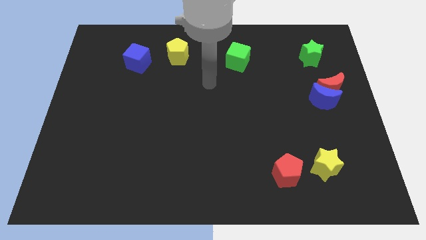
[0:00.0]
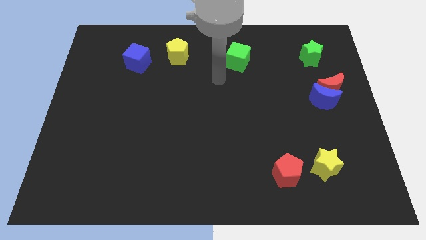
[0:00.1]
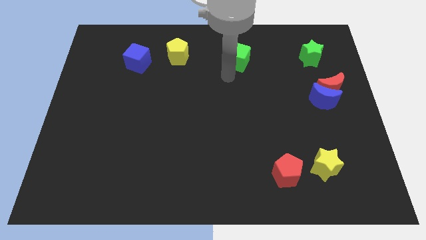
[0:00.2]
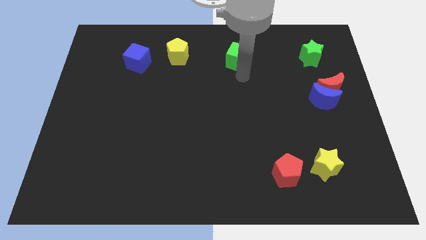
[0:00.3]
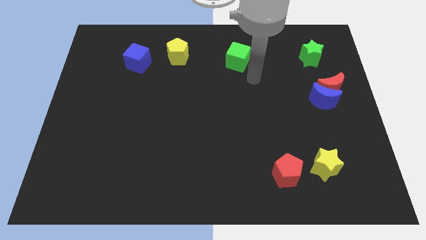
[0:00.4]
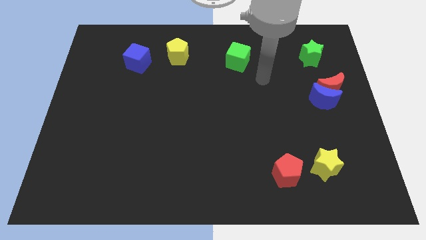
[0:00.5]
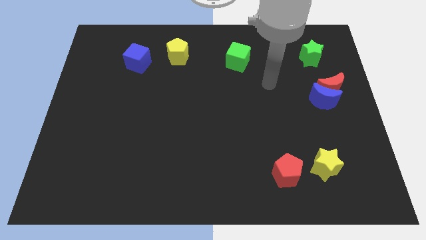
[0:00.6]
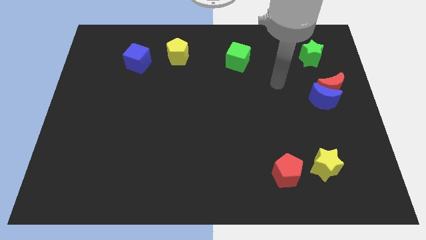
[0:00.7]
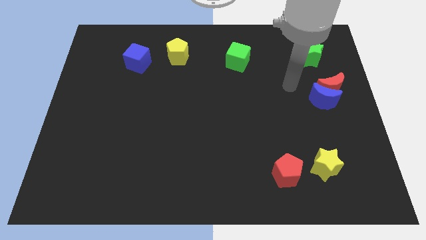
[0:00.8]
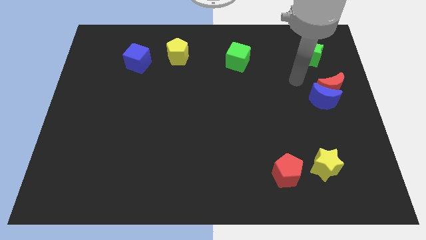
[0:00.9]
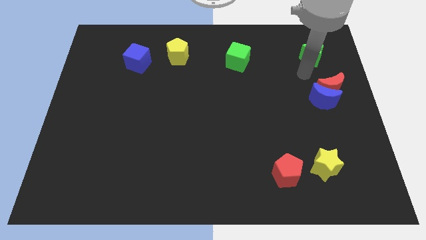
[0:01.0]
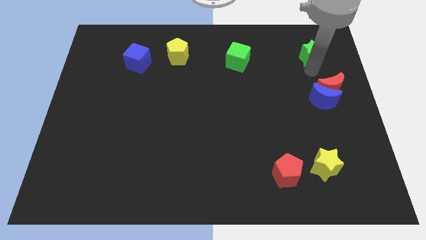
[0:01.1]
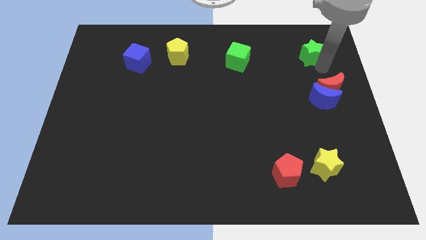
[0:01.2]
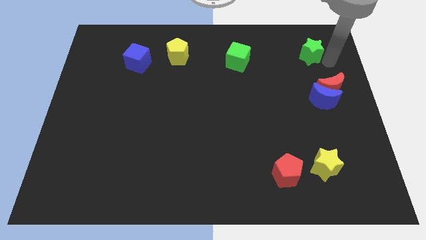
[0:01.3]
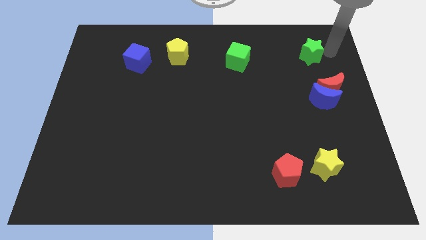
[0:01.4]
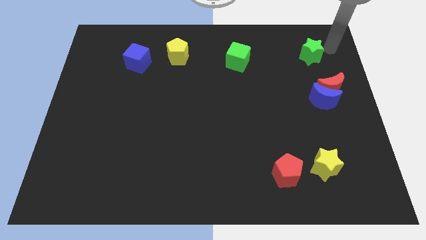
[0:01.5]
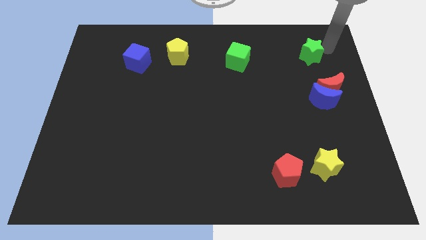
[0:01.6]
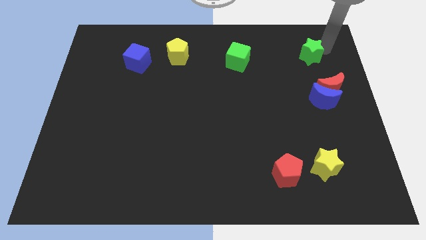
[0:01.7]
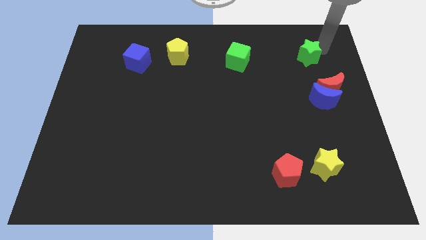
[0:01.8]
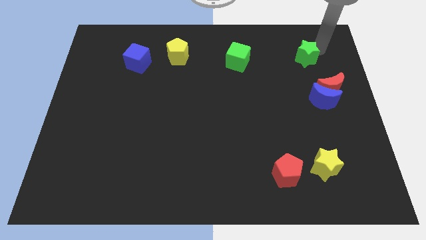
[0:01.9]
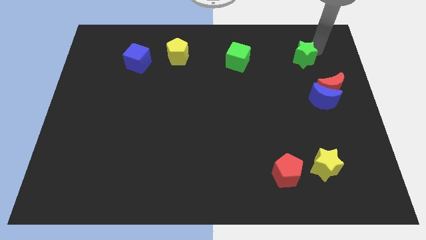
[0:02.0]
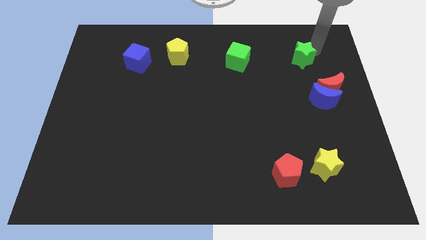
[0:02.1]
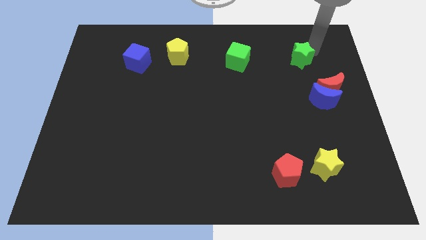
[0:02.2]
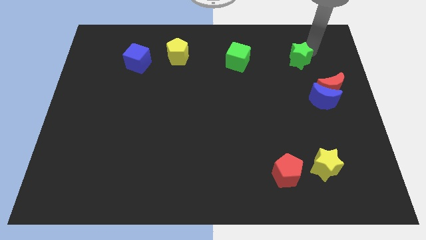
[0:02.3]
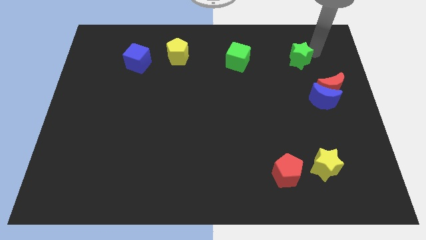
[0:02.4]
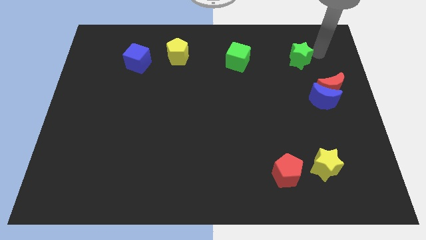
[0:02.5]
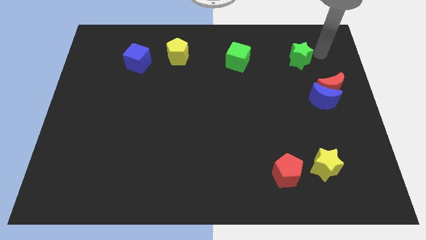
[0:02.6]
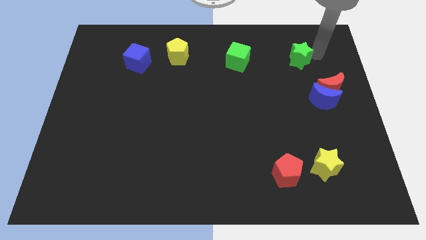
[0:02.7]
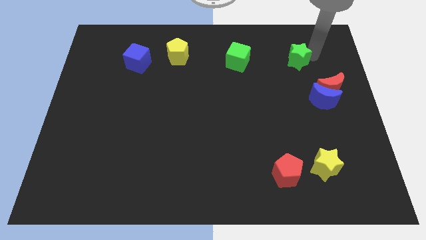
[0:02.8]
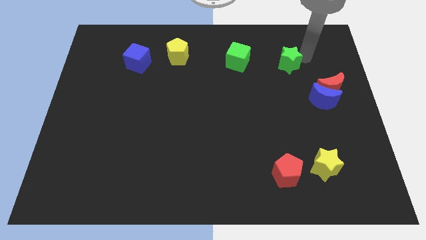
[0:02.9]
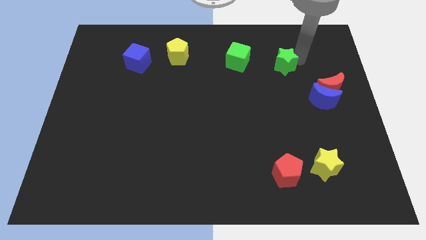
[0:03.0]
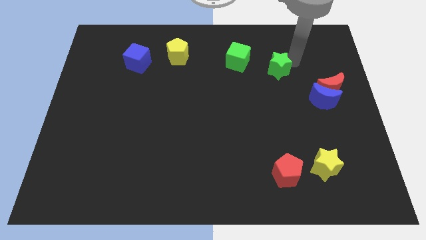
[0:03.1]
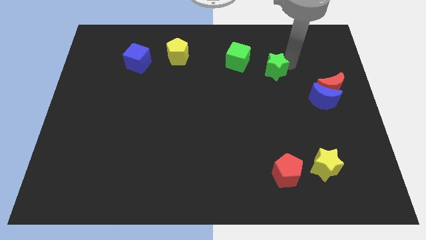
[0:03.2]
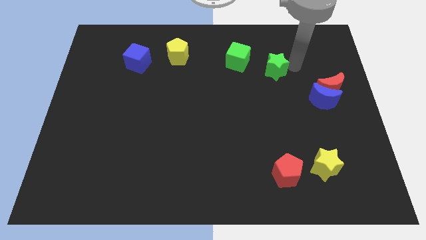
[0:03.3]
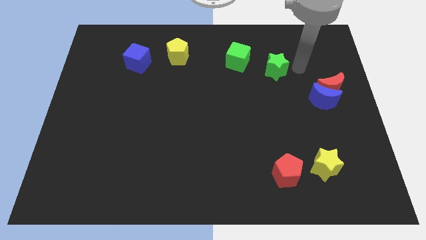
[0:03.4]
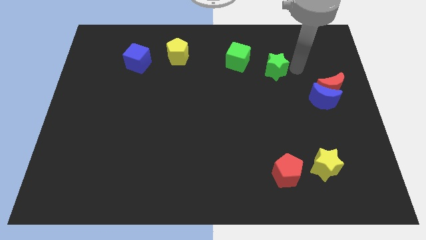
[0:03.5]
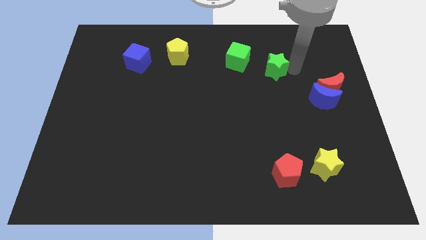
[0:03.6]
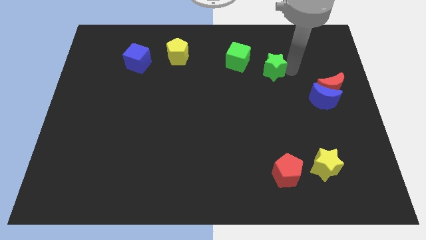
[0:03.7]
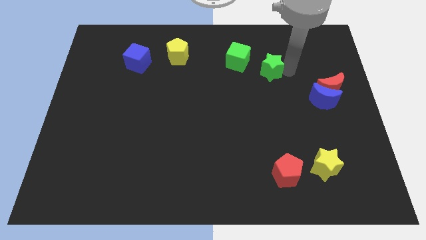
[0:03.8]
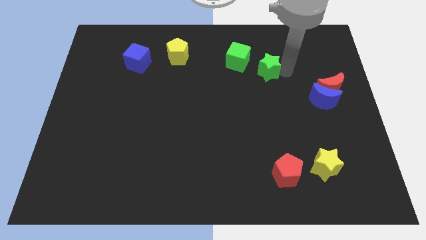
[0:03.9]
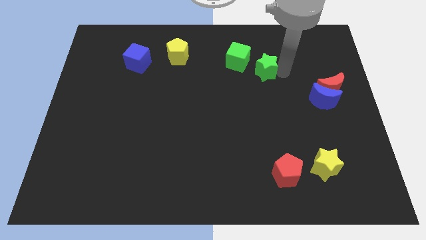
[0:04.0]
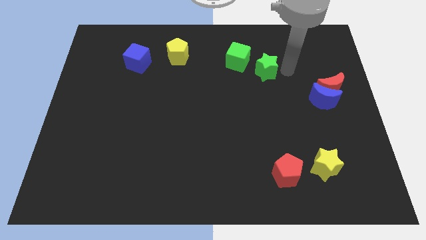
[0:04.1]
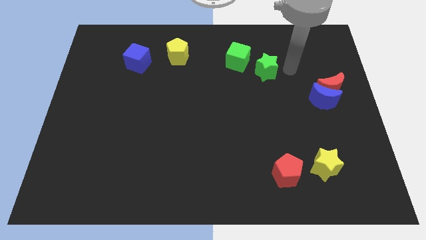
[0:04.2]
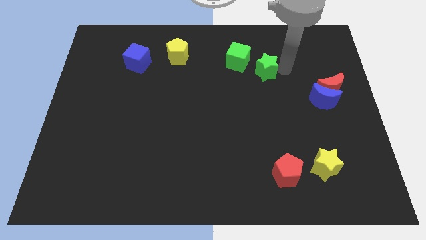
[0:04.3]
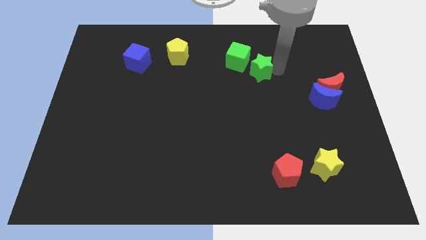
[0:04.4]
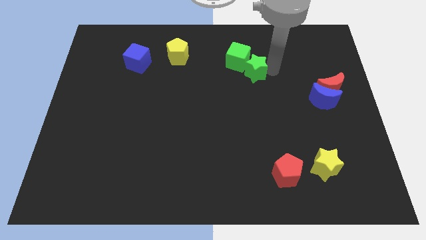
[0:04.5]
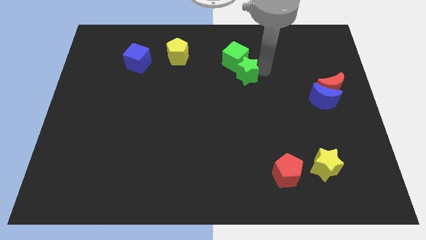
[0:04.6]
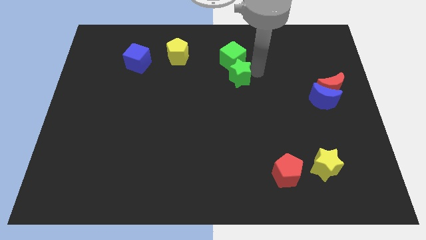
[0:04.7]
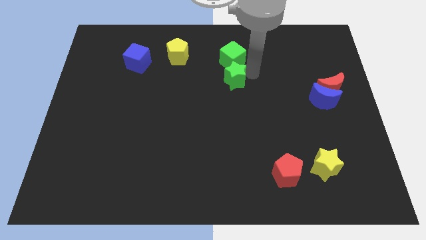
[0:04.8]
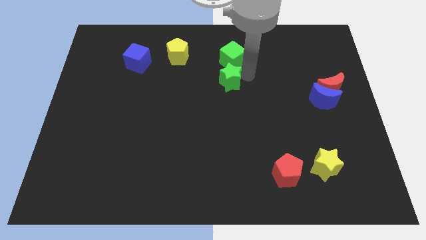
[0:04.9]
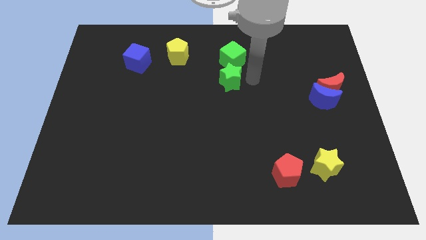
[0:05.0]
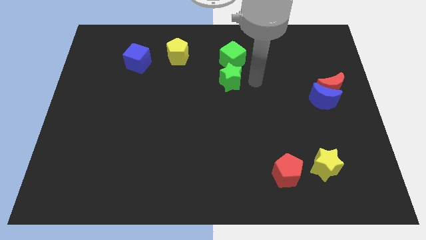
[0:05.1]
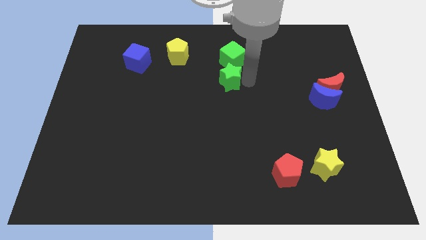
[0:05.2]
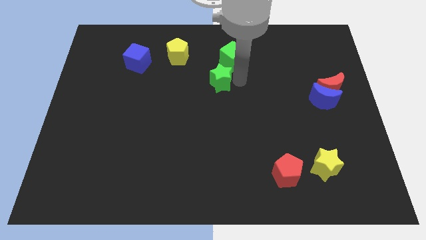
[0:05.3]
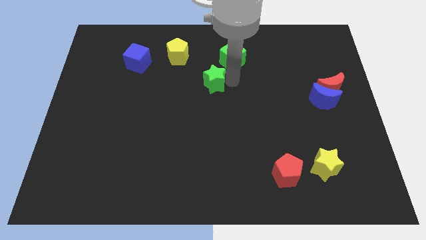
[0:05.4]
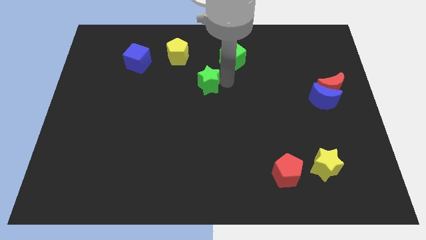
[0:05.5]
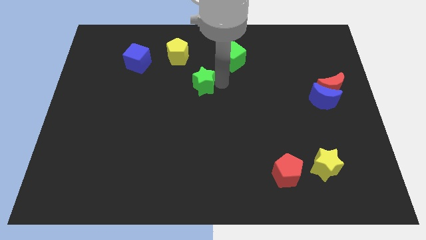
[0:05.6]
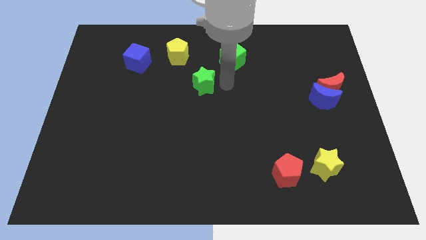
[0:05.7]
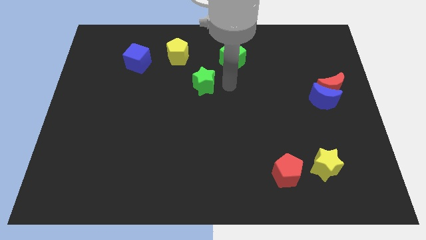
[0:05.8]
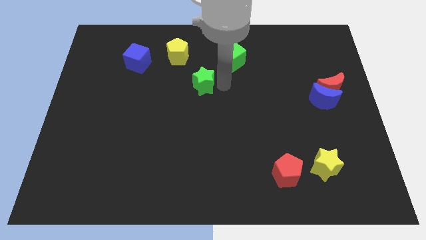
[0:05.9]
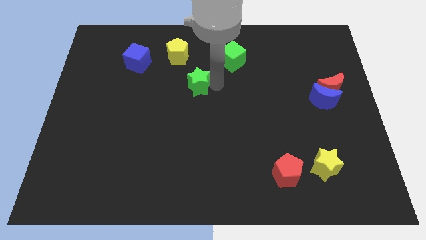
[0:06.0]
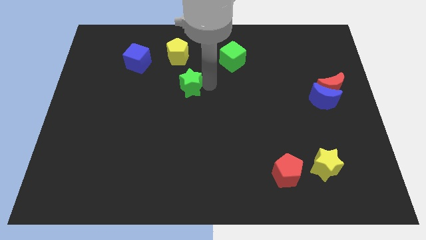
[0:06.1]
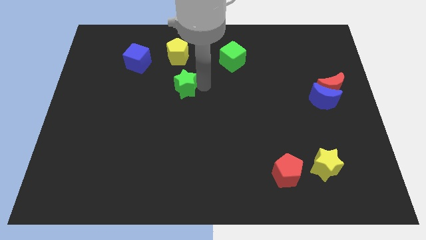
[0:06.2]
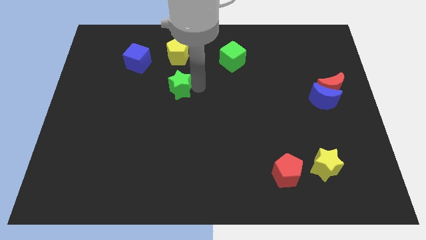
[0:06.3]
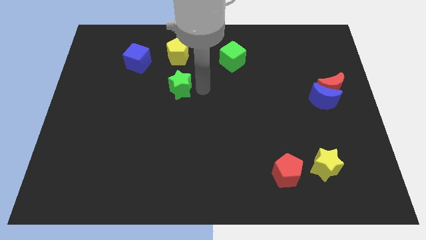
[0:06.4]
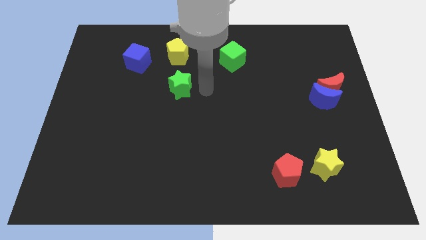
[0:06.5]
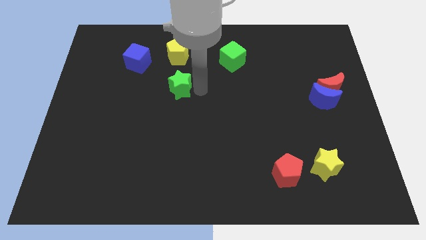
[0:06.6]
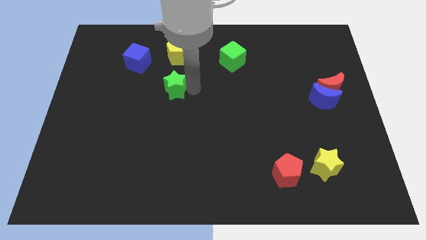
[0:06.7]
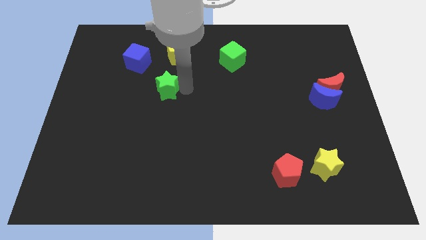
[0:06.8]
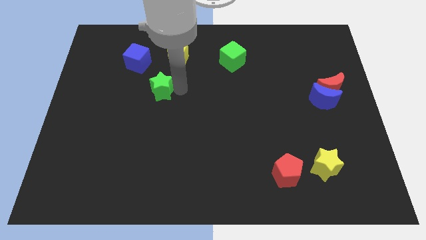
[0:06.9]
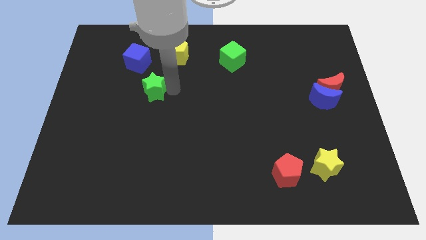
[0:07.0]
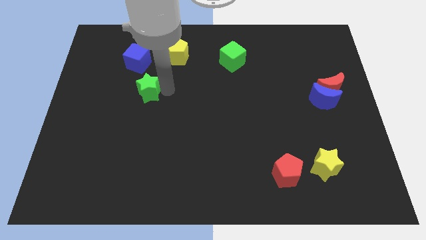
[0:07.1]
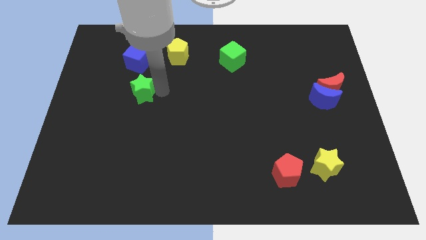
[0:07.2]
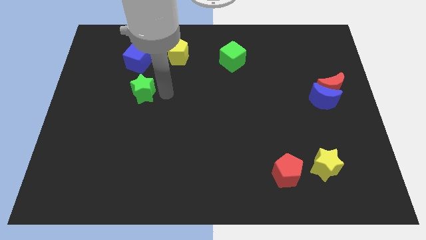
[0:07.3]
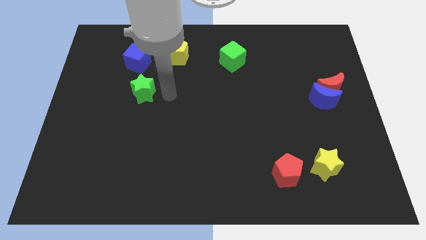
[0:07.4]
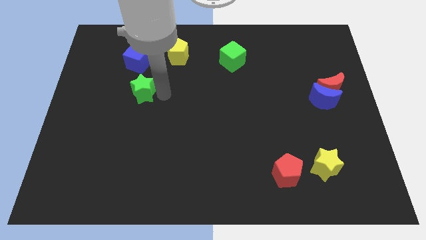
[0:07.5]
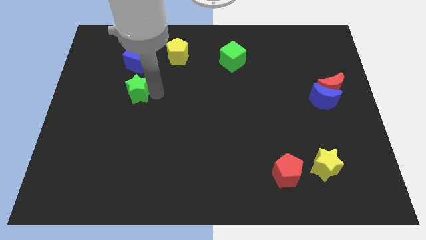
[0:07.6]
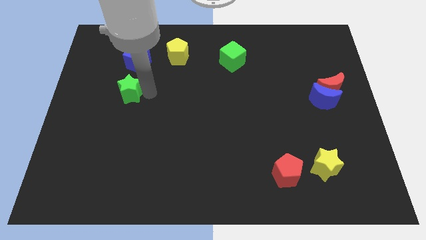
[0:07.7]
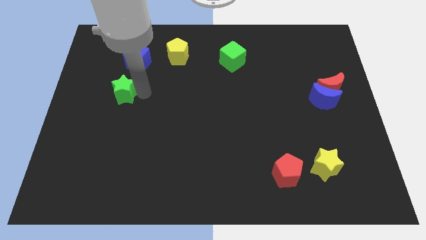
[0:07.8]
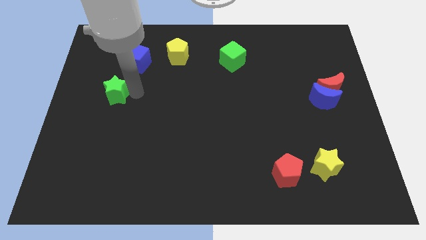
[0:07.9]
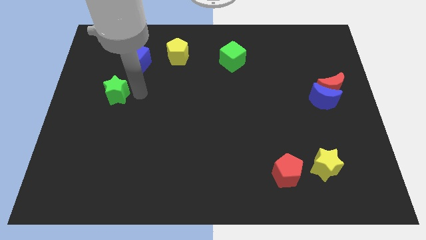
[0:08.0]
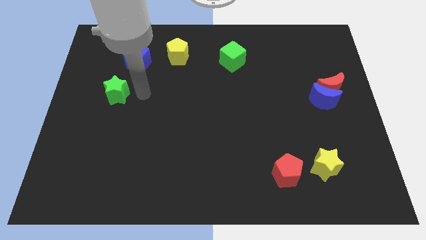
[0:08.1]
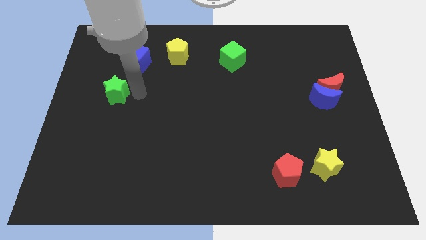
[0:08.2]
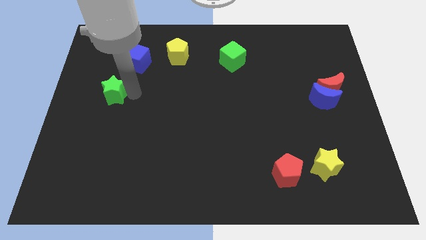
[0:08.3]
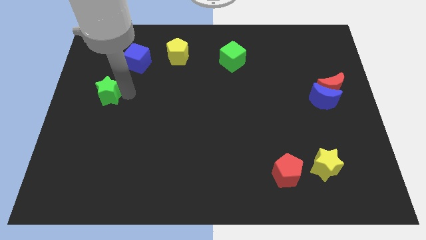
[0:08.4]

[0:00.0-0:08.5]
push the green star to the left side of the board
